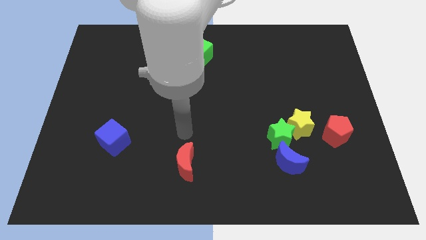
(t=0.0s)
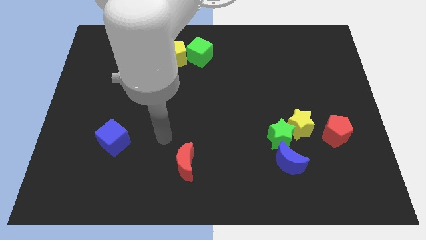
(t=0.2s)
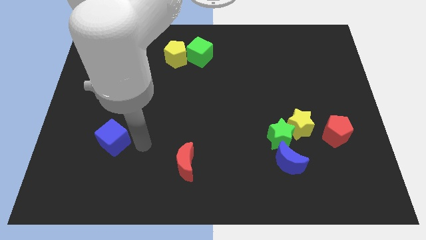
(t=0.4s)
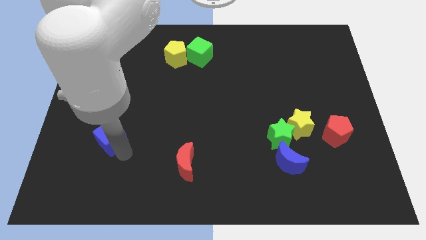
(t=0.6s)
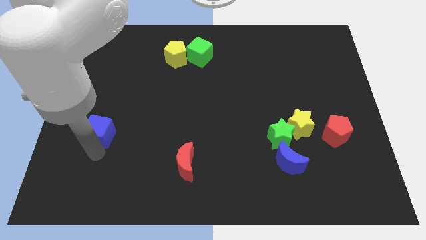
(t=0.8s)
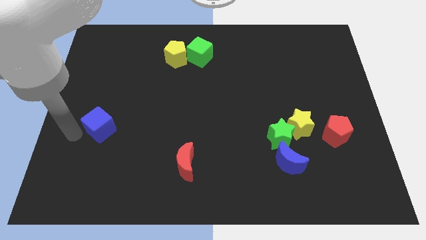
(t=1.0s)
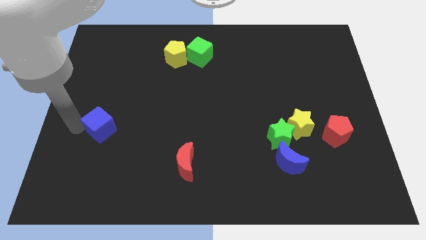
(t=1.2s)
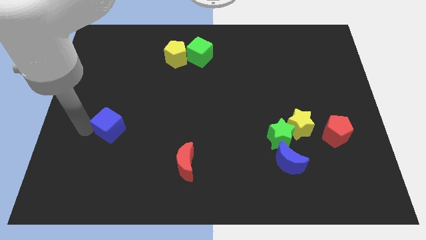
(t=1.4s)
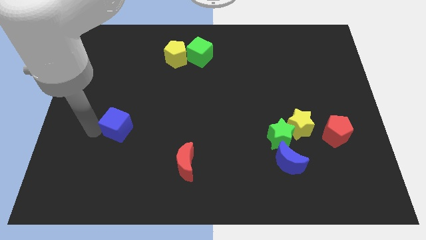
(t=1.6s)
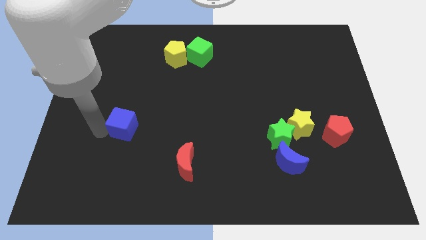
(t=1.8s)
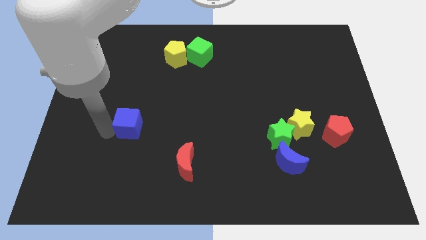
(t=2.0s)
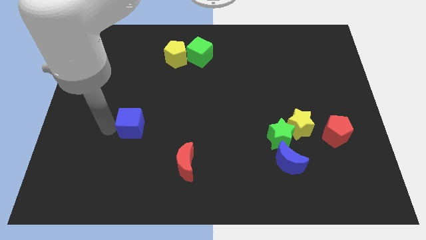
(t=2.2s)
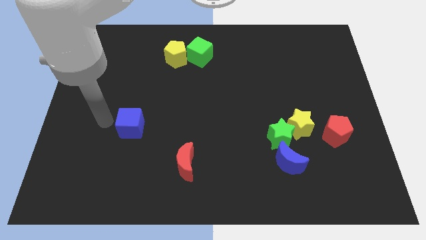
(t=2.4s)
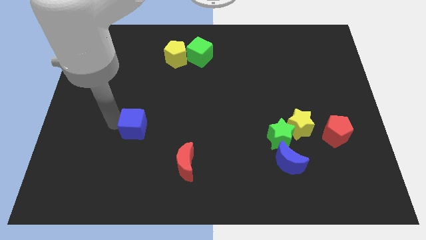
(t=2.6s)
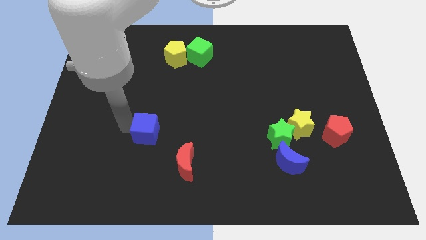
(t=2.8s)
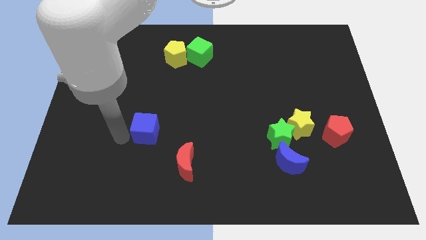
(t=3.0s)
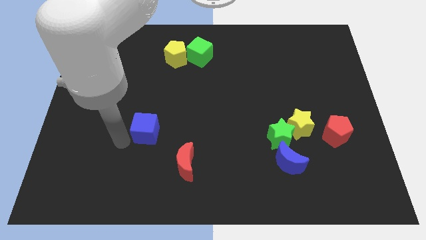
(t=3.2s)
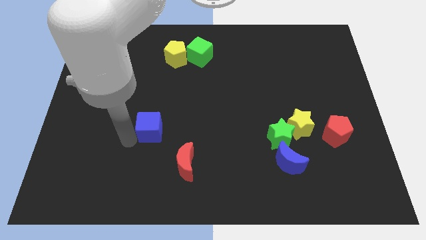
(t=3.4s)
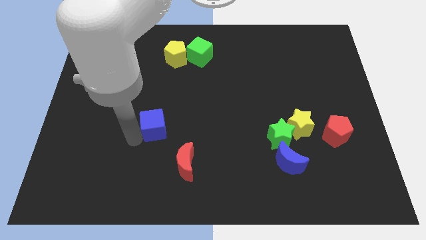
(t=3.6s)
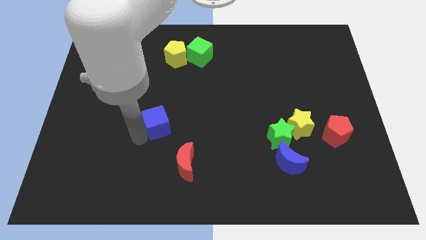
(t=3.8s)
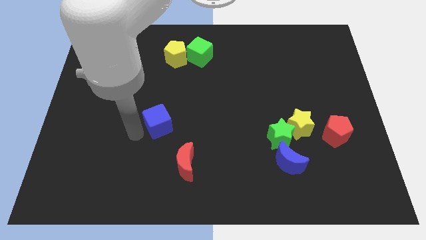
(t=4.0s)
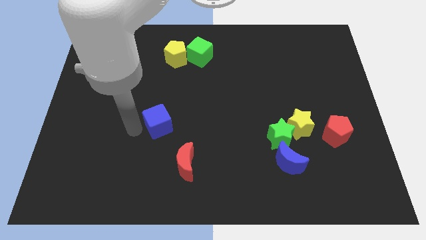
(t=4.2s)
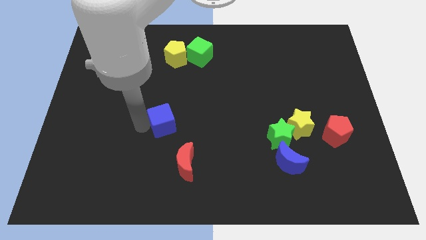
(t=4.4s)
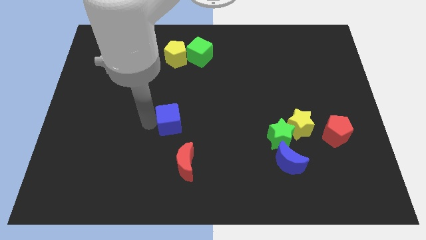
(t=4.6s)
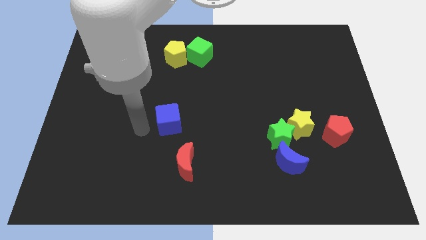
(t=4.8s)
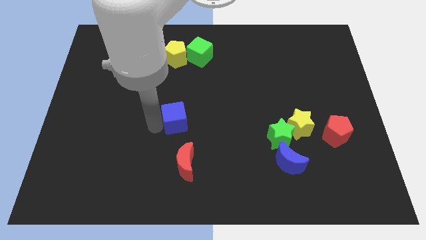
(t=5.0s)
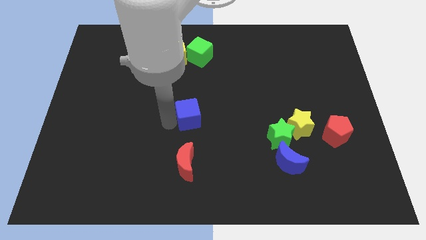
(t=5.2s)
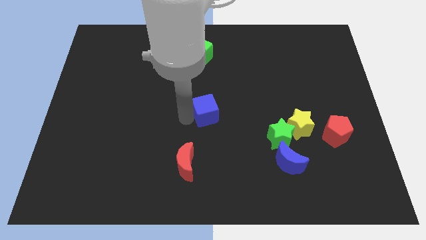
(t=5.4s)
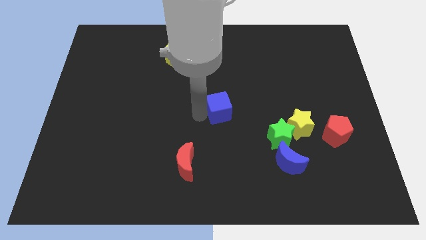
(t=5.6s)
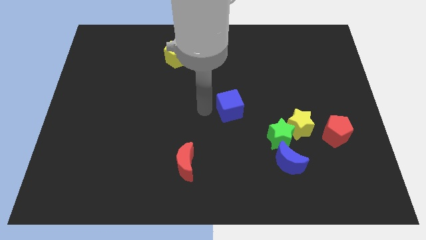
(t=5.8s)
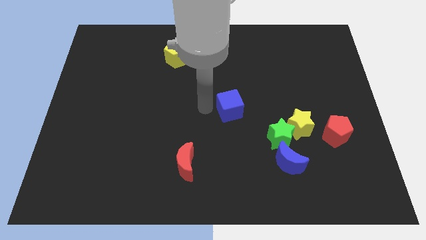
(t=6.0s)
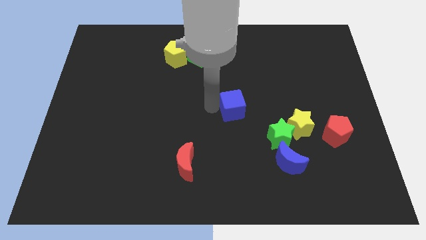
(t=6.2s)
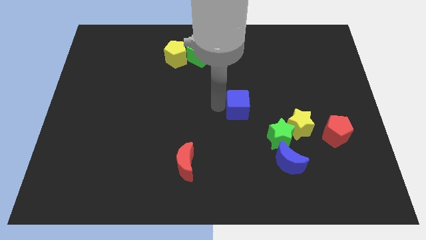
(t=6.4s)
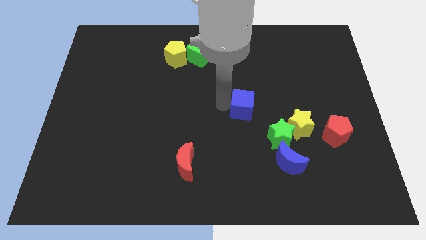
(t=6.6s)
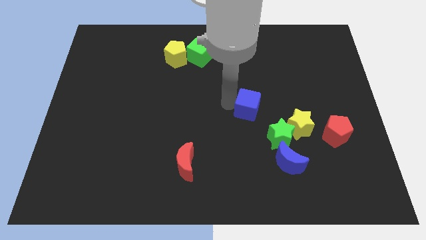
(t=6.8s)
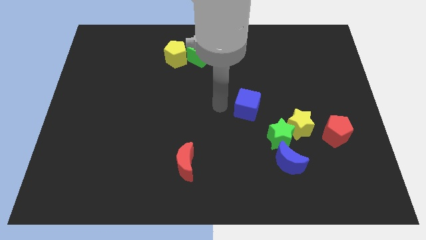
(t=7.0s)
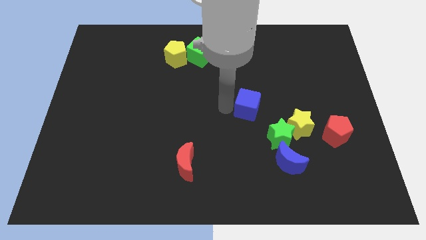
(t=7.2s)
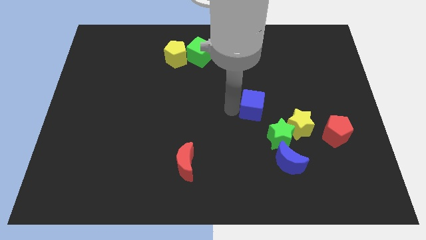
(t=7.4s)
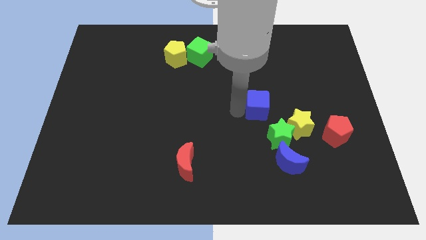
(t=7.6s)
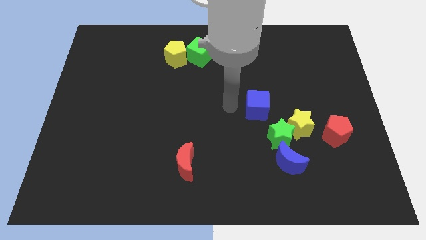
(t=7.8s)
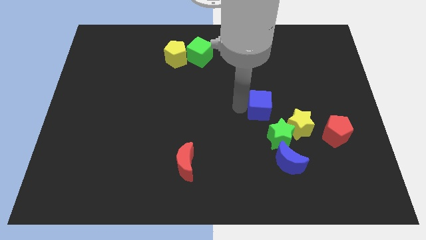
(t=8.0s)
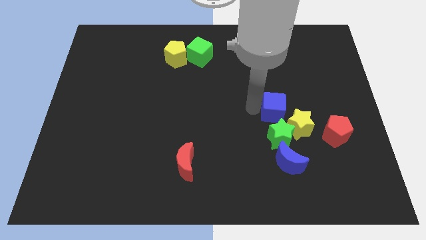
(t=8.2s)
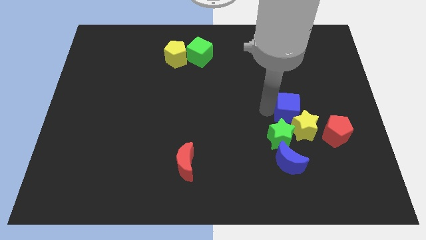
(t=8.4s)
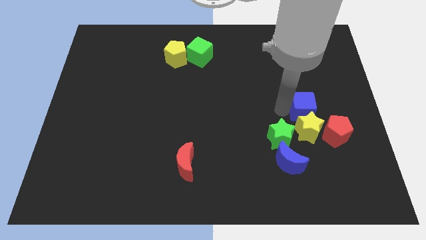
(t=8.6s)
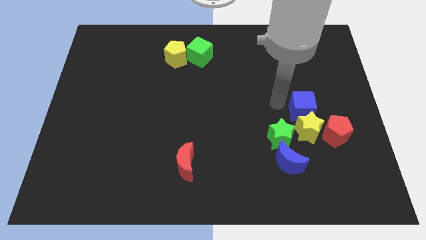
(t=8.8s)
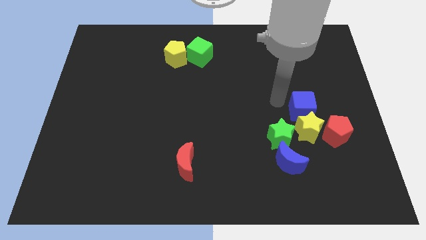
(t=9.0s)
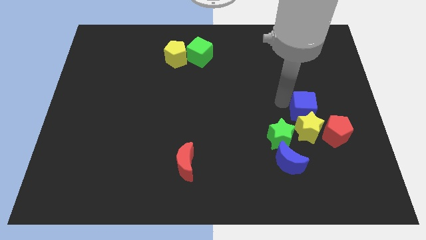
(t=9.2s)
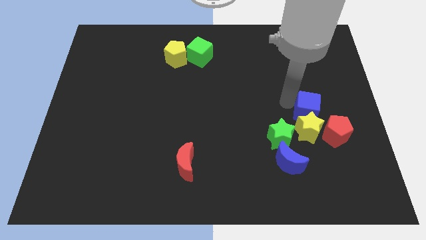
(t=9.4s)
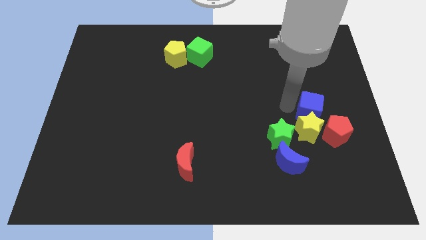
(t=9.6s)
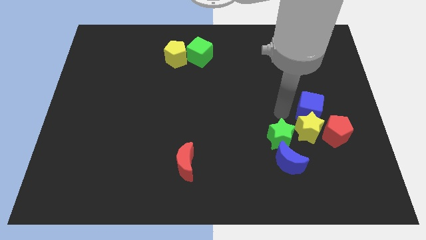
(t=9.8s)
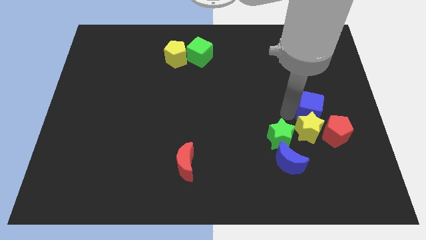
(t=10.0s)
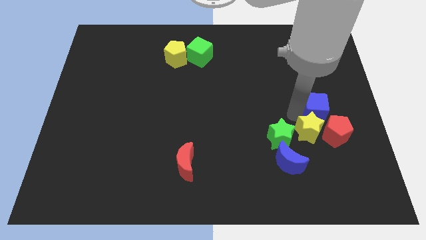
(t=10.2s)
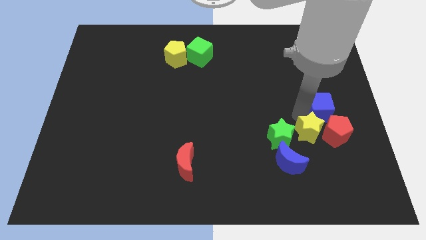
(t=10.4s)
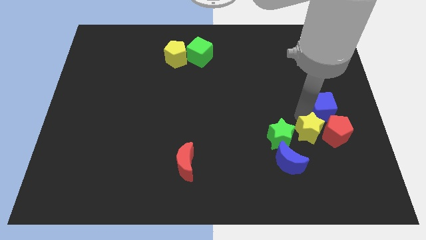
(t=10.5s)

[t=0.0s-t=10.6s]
slide the blue cube to the right side

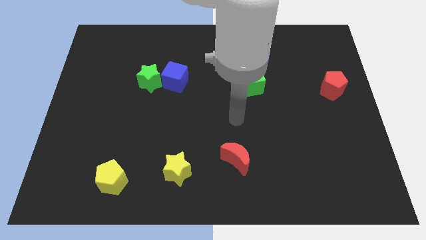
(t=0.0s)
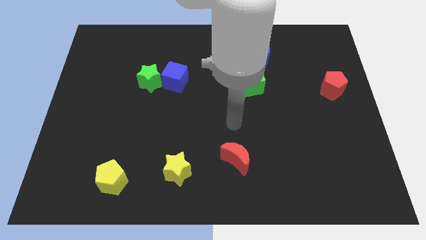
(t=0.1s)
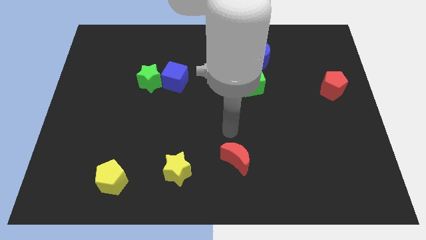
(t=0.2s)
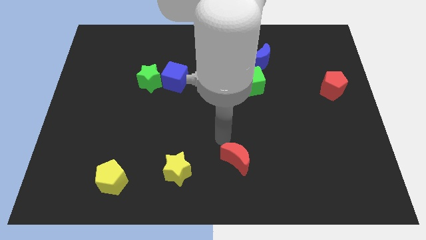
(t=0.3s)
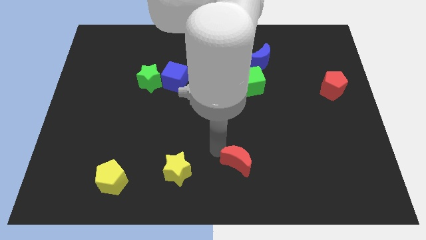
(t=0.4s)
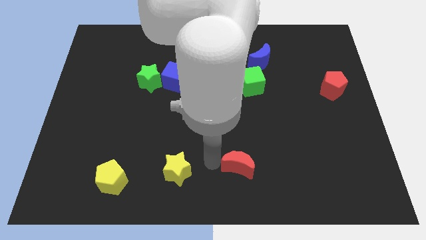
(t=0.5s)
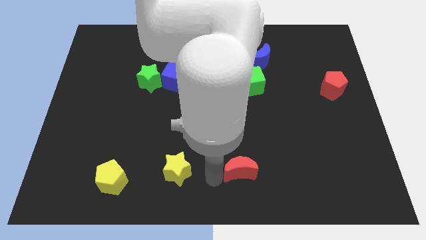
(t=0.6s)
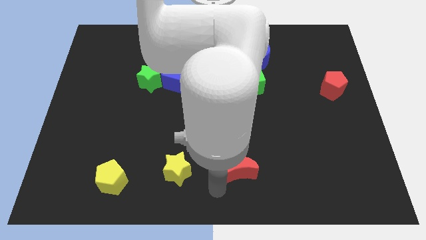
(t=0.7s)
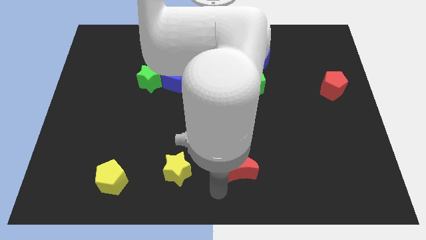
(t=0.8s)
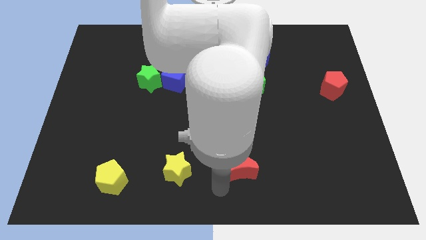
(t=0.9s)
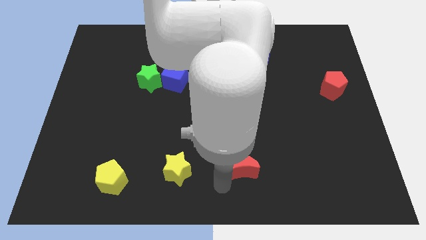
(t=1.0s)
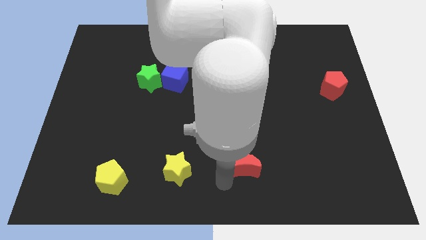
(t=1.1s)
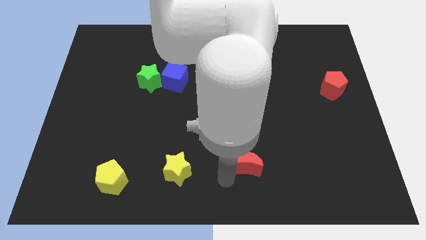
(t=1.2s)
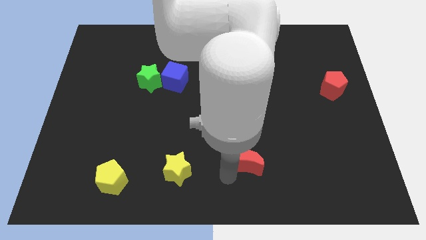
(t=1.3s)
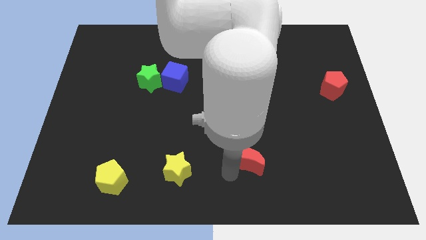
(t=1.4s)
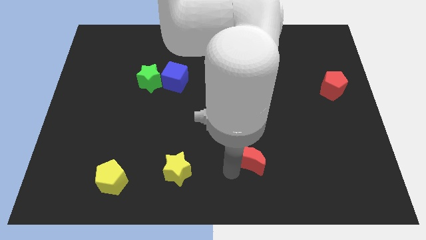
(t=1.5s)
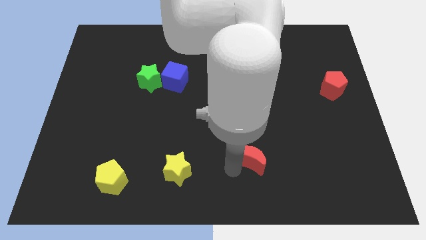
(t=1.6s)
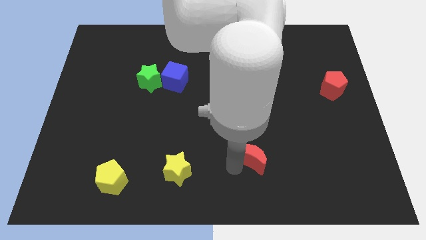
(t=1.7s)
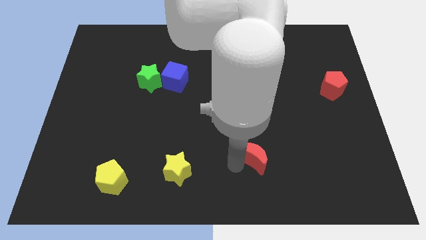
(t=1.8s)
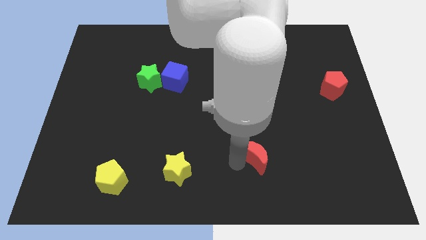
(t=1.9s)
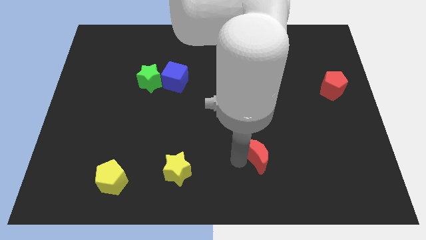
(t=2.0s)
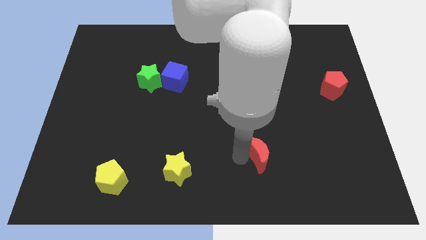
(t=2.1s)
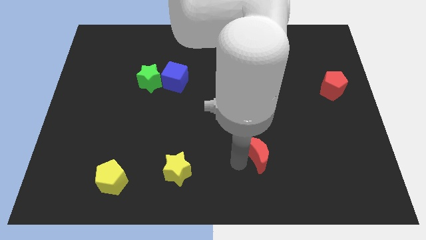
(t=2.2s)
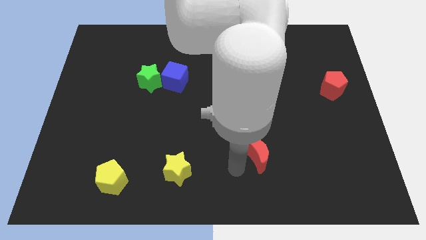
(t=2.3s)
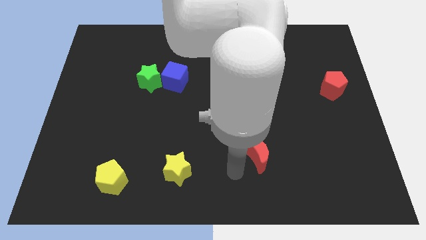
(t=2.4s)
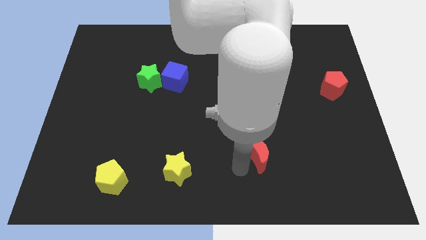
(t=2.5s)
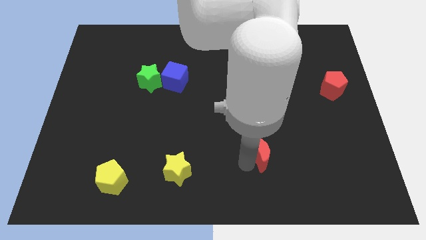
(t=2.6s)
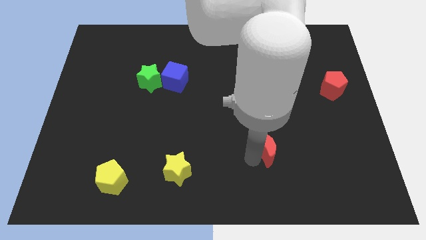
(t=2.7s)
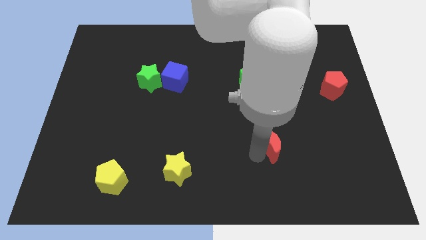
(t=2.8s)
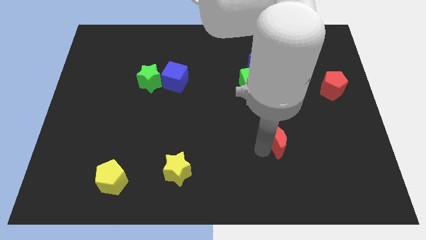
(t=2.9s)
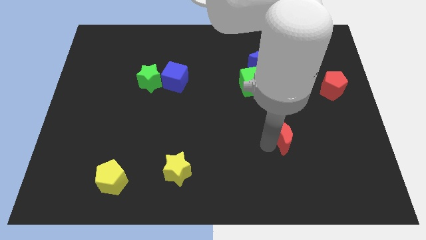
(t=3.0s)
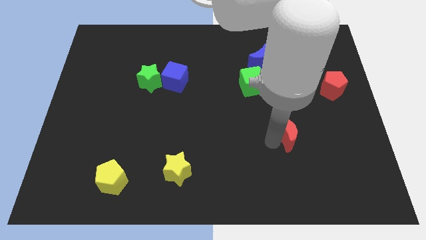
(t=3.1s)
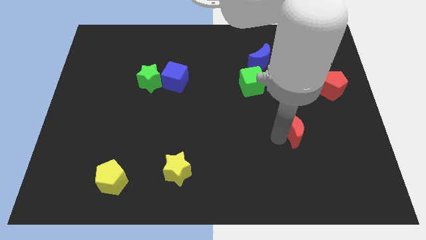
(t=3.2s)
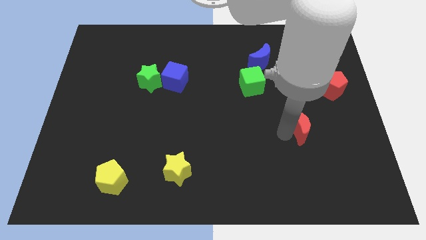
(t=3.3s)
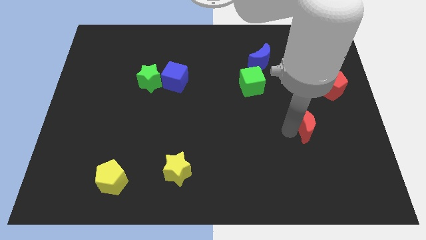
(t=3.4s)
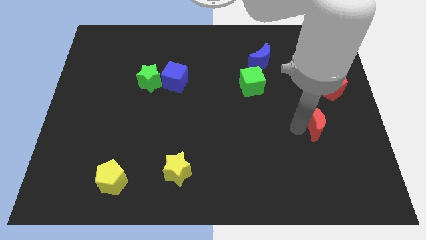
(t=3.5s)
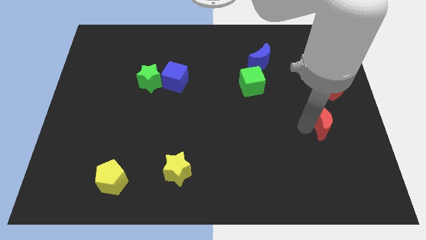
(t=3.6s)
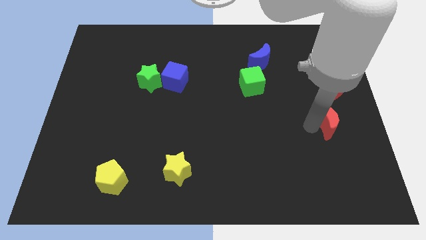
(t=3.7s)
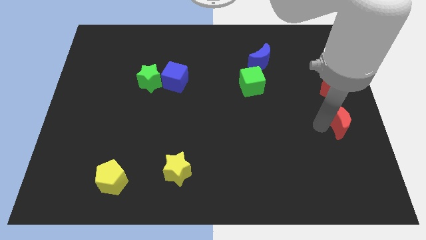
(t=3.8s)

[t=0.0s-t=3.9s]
move the red moon to the right side
